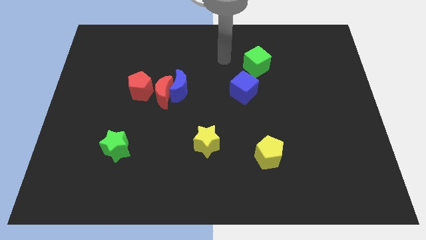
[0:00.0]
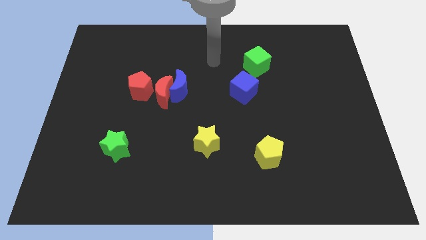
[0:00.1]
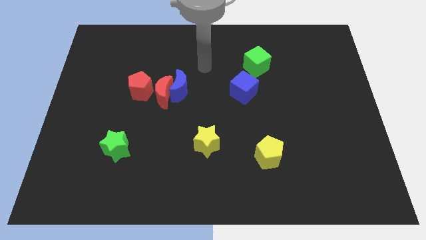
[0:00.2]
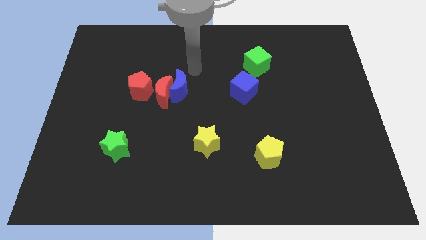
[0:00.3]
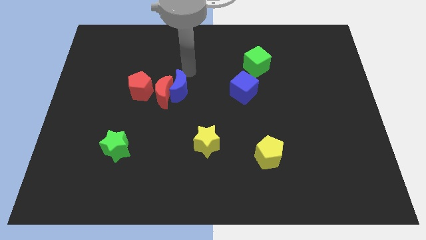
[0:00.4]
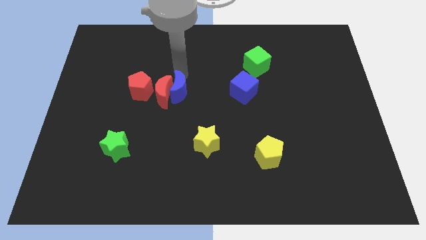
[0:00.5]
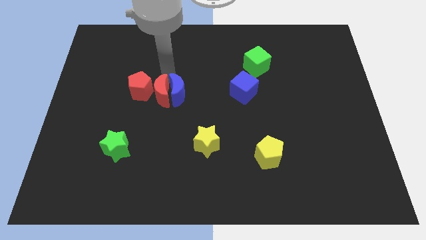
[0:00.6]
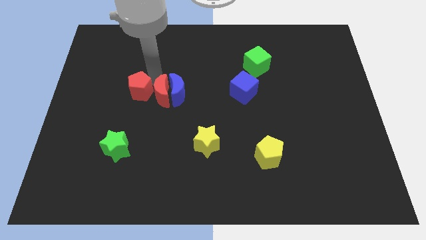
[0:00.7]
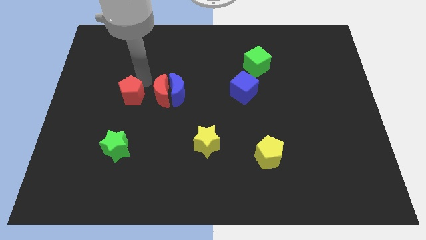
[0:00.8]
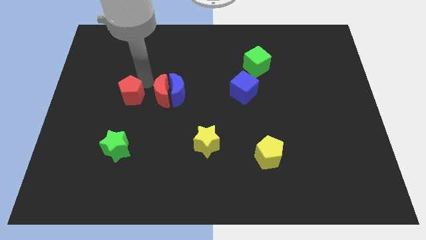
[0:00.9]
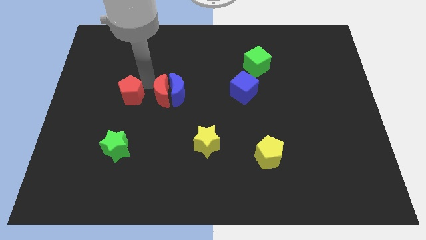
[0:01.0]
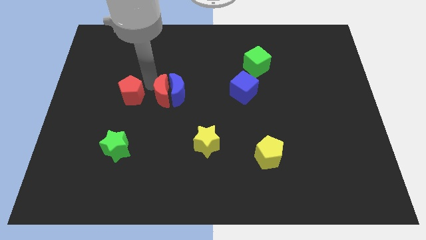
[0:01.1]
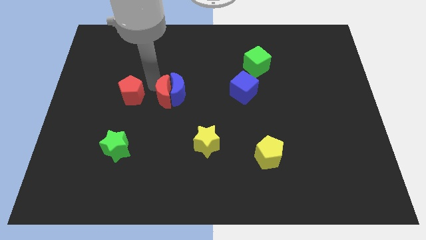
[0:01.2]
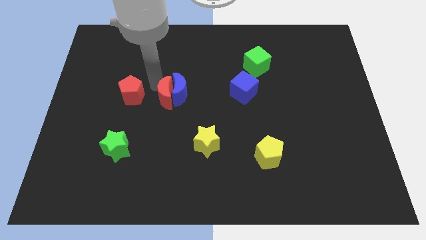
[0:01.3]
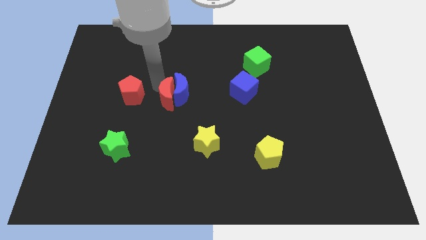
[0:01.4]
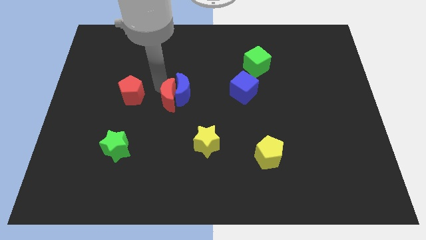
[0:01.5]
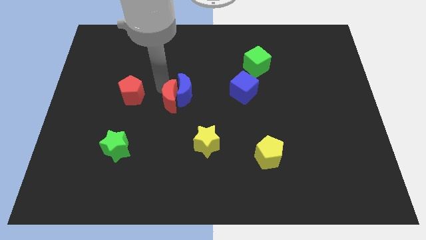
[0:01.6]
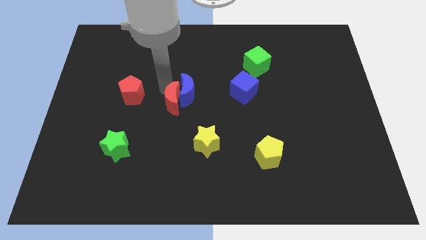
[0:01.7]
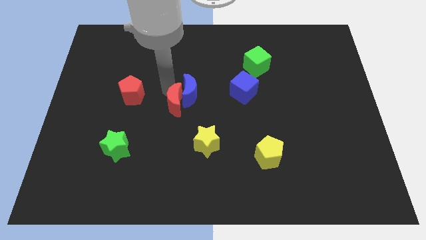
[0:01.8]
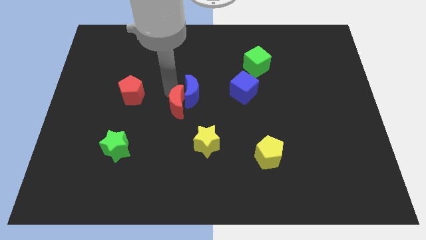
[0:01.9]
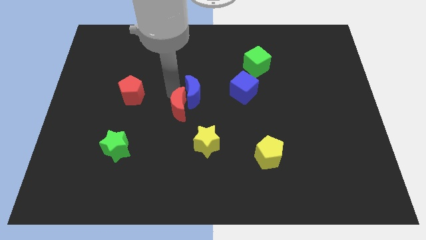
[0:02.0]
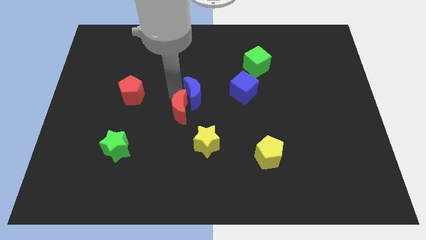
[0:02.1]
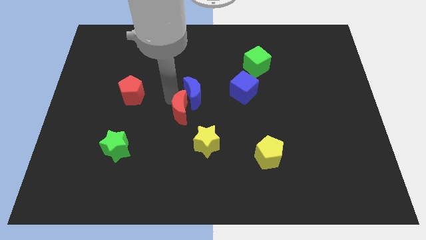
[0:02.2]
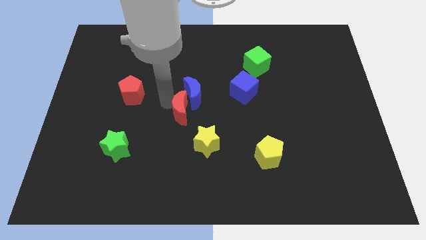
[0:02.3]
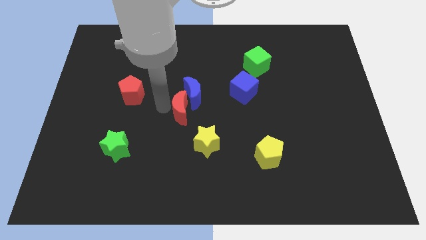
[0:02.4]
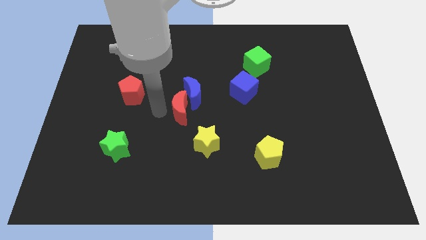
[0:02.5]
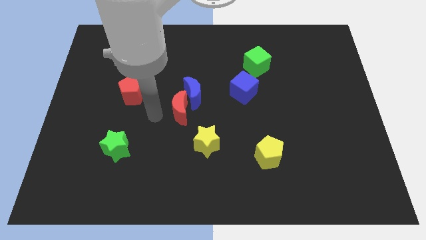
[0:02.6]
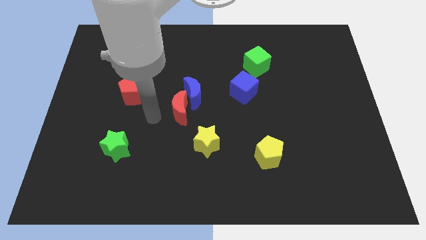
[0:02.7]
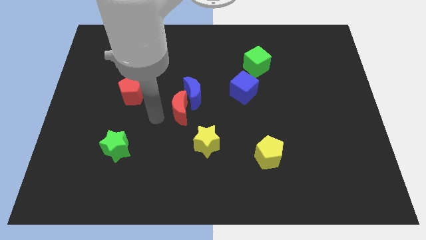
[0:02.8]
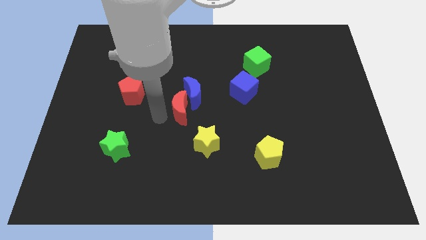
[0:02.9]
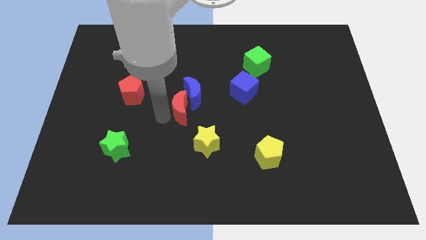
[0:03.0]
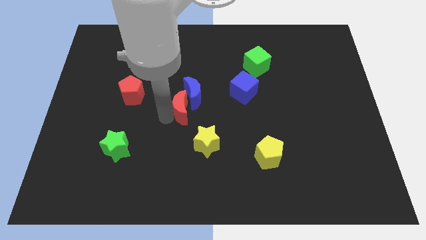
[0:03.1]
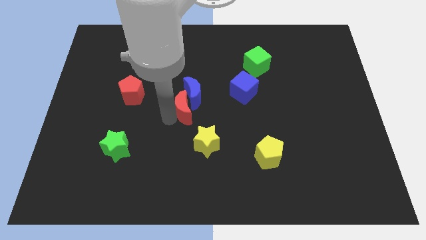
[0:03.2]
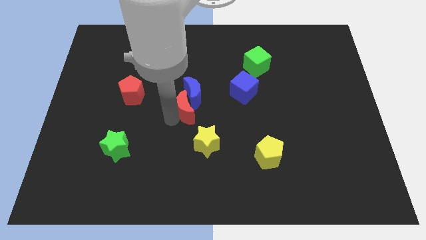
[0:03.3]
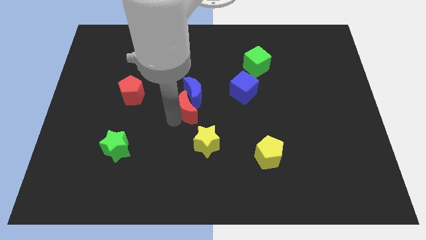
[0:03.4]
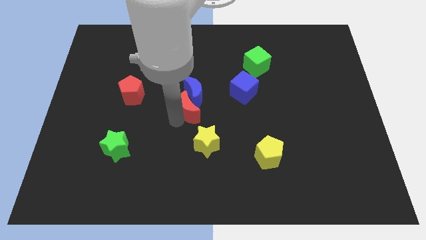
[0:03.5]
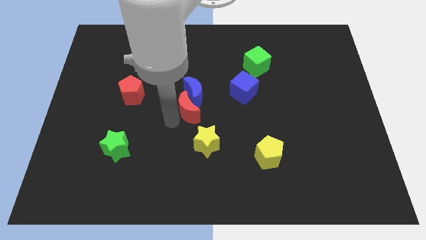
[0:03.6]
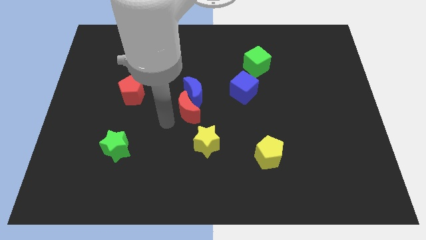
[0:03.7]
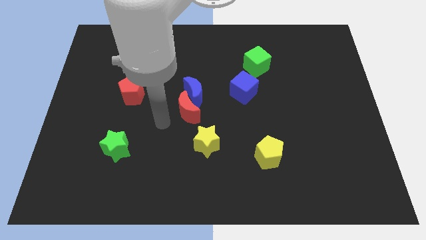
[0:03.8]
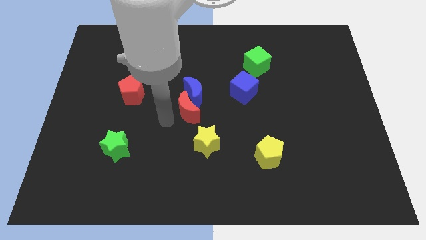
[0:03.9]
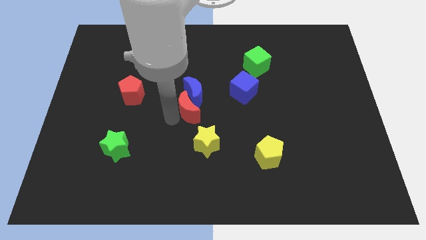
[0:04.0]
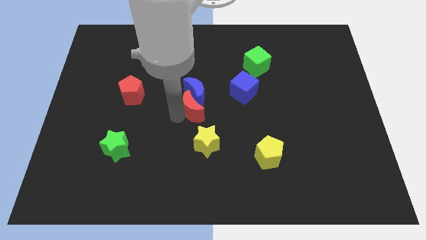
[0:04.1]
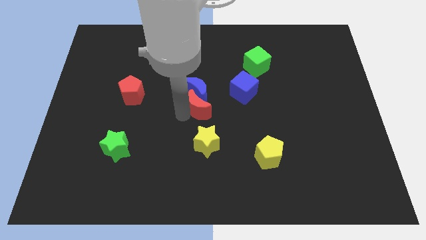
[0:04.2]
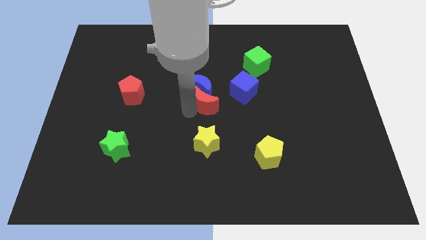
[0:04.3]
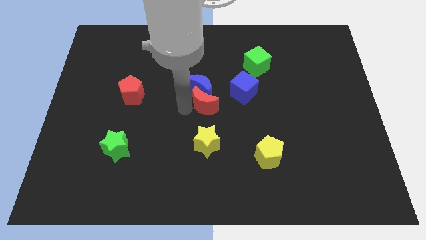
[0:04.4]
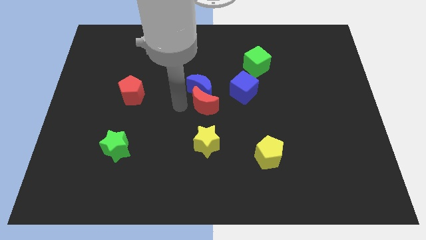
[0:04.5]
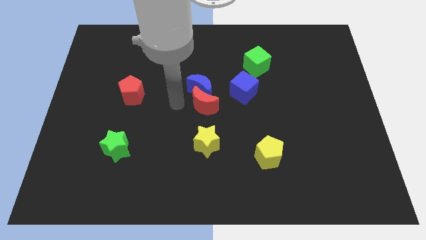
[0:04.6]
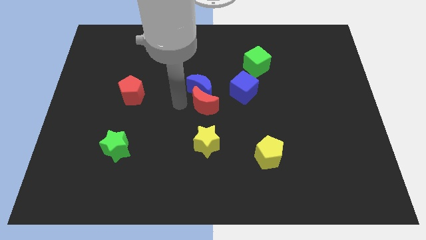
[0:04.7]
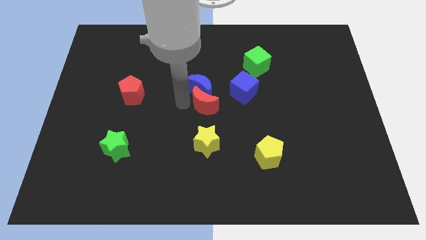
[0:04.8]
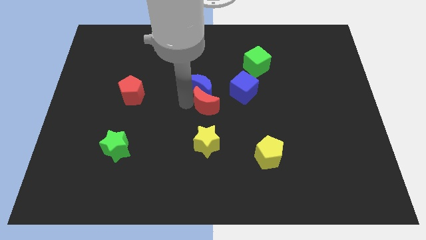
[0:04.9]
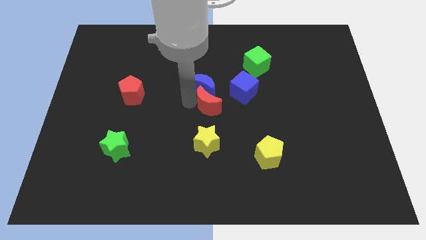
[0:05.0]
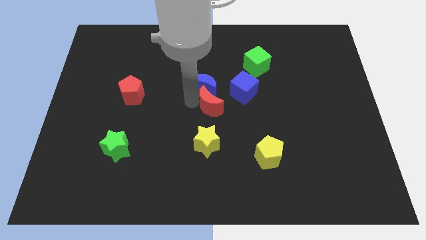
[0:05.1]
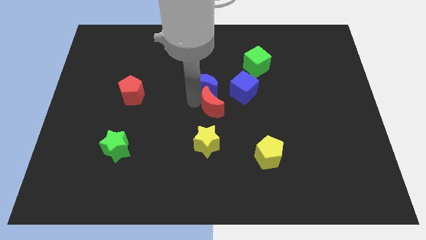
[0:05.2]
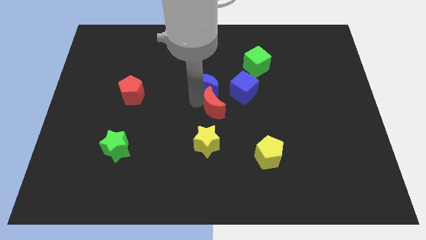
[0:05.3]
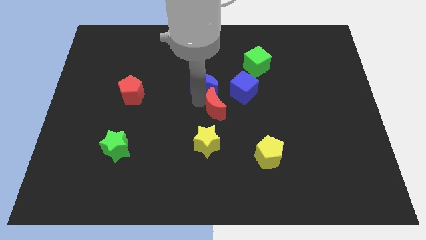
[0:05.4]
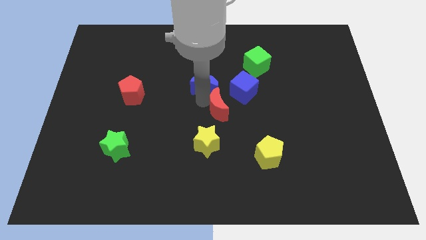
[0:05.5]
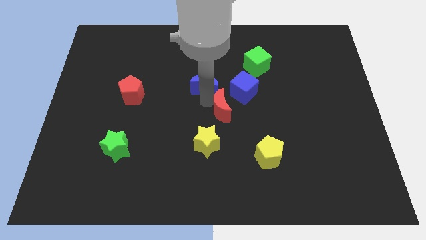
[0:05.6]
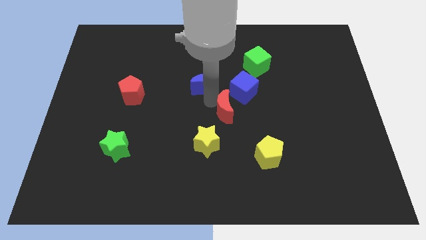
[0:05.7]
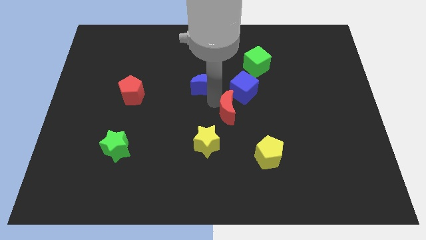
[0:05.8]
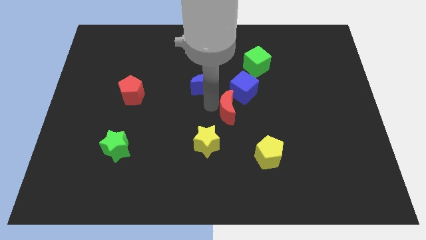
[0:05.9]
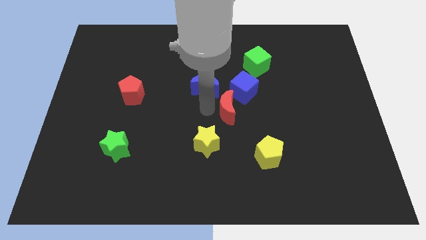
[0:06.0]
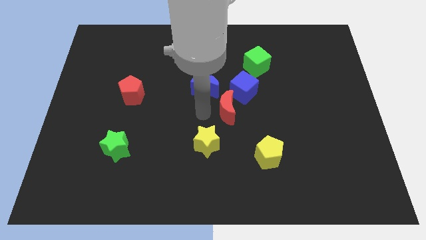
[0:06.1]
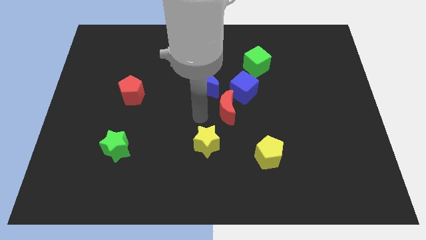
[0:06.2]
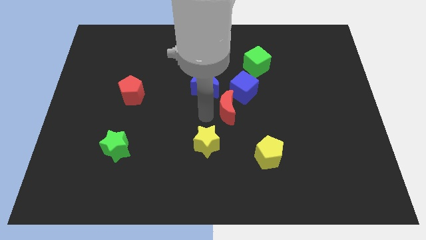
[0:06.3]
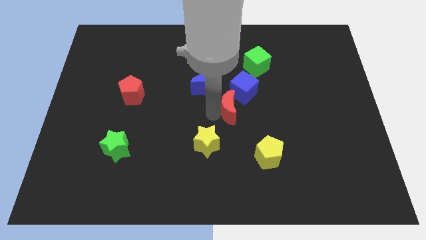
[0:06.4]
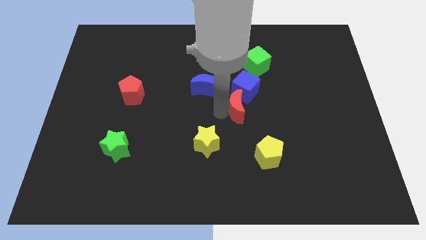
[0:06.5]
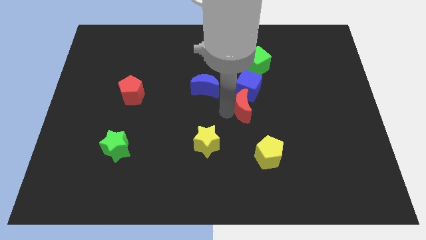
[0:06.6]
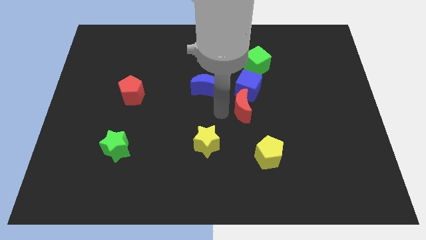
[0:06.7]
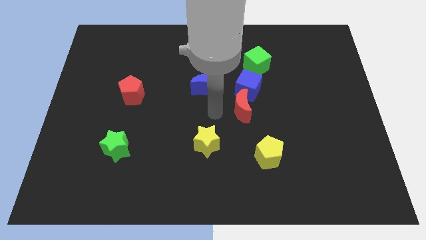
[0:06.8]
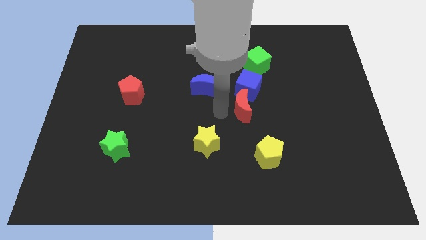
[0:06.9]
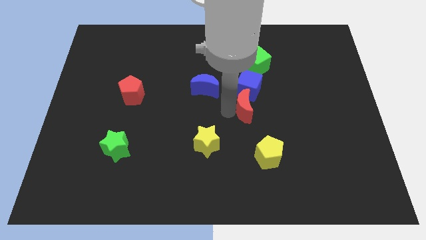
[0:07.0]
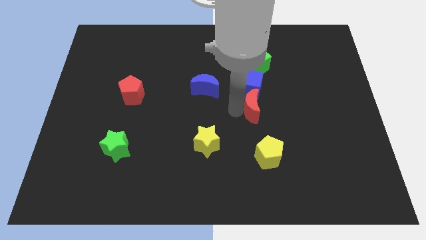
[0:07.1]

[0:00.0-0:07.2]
put the red moon diagonally down and to the right of the blue cube

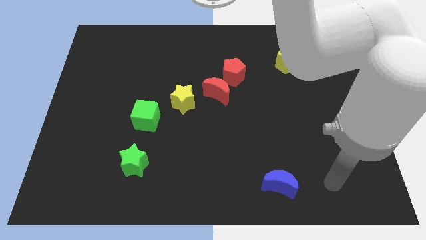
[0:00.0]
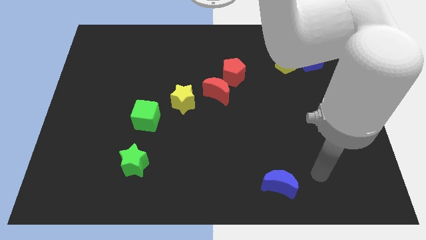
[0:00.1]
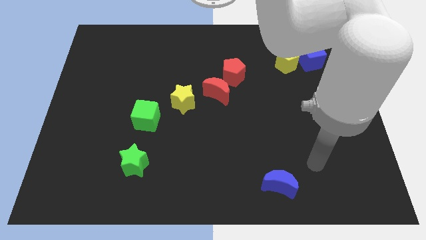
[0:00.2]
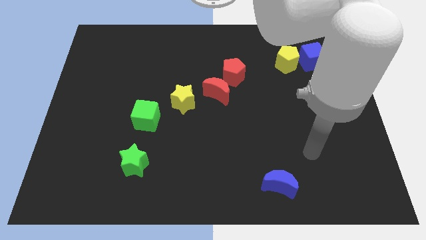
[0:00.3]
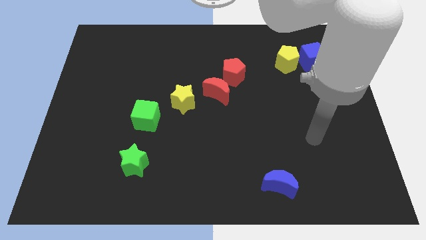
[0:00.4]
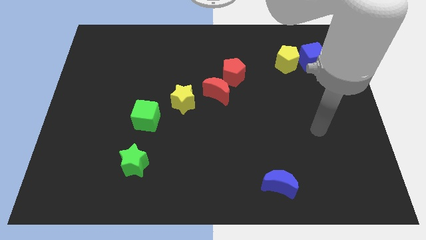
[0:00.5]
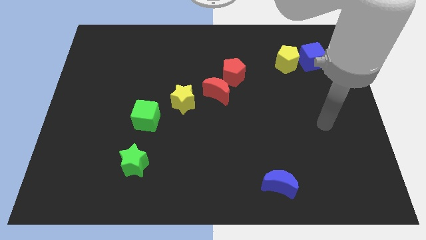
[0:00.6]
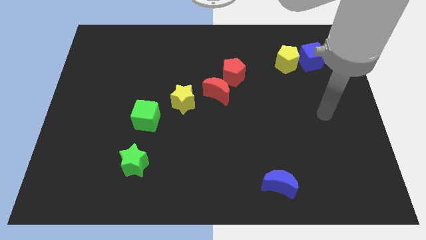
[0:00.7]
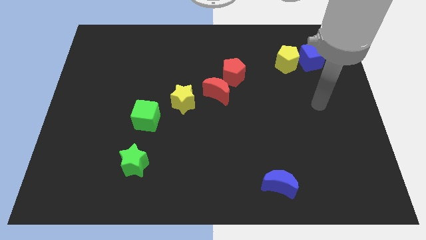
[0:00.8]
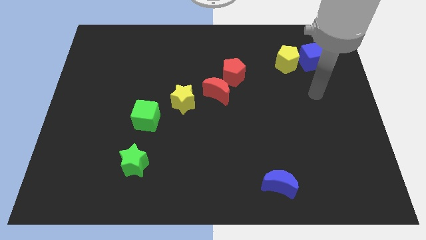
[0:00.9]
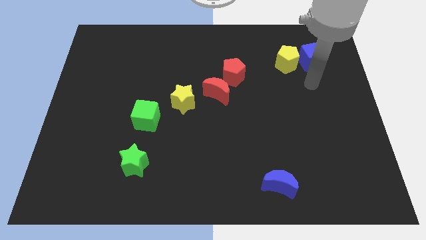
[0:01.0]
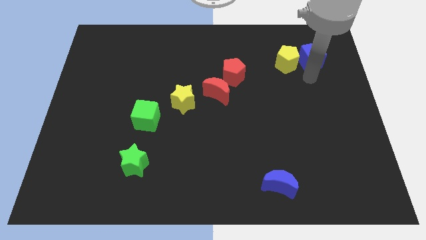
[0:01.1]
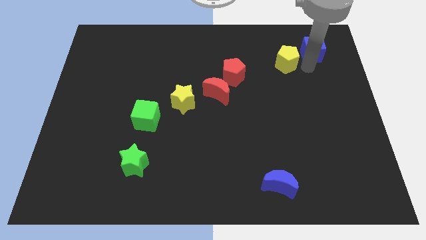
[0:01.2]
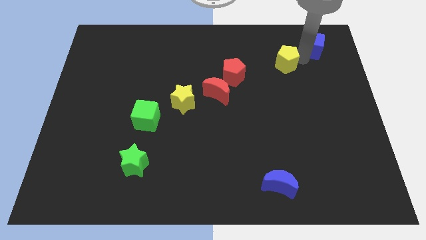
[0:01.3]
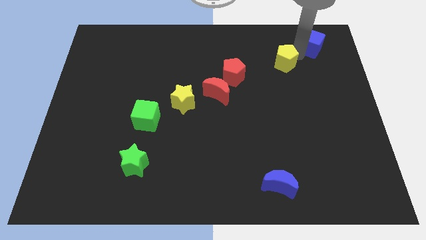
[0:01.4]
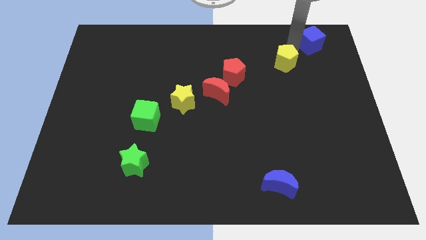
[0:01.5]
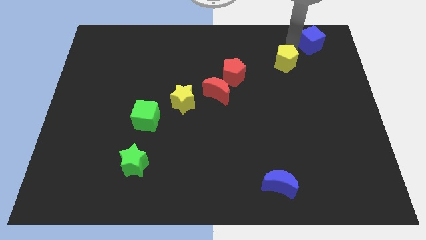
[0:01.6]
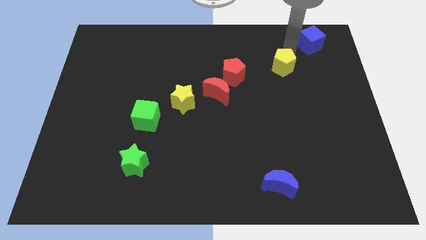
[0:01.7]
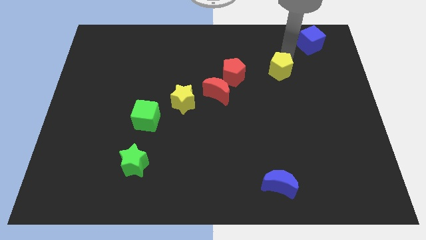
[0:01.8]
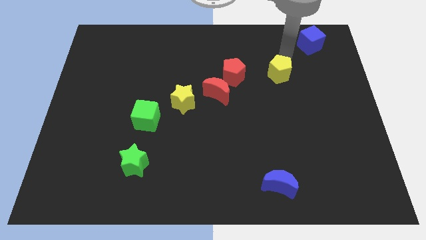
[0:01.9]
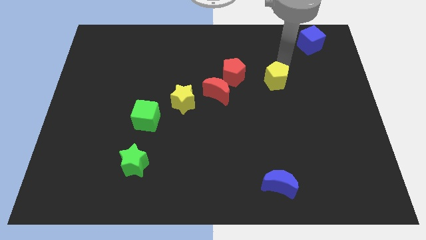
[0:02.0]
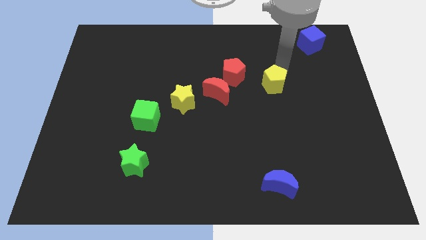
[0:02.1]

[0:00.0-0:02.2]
slide the yellow pentagon to the right of the red moon
